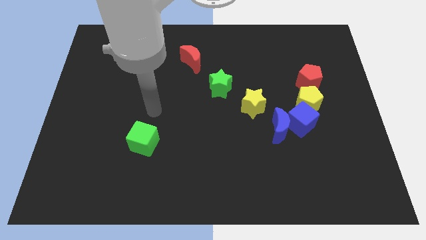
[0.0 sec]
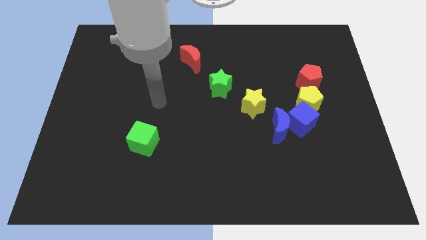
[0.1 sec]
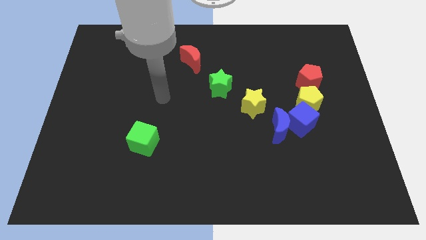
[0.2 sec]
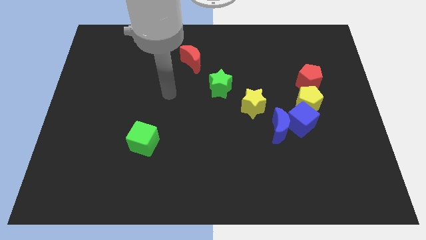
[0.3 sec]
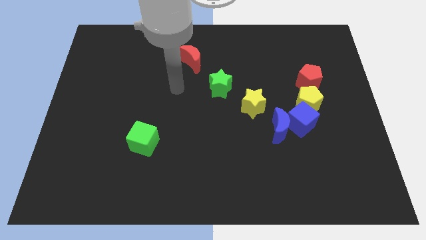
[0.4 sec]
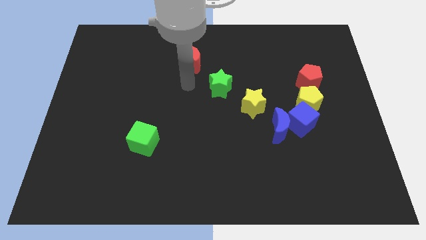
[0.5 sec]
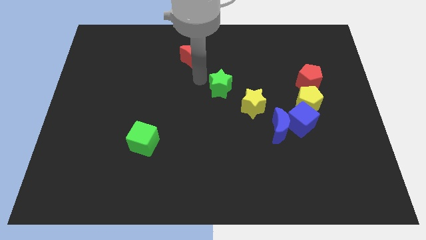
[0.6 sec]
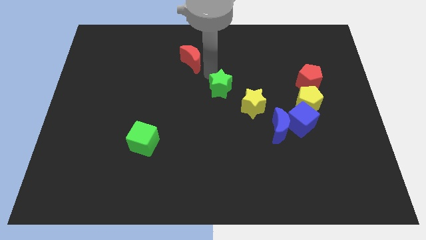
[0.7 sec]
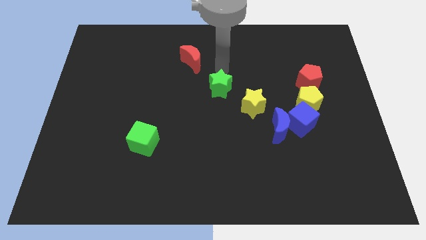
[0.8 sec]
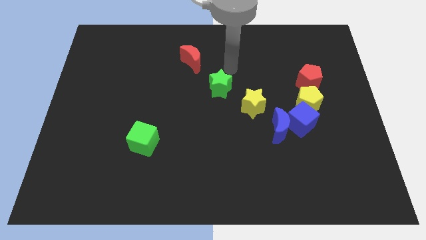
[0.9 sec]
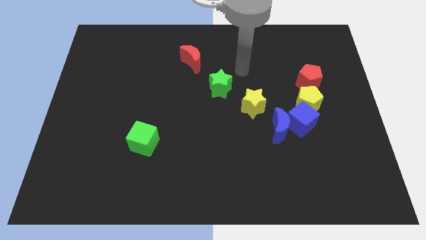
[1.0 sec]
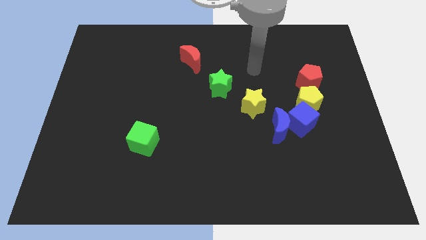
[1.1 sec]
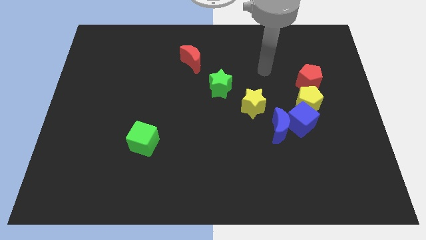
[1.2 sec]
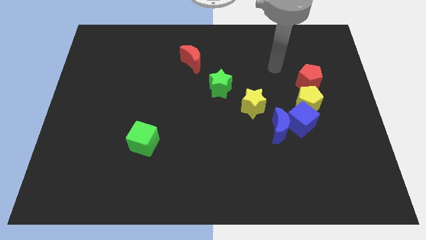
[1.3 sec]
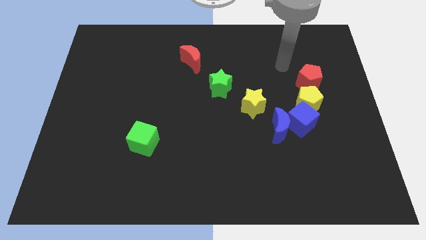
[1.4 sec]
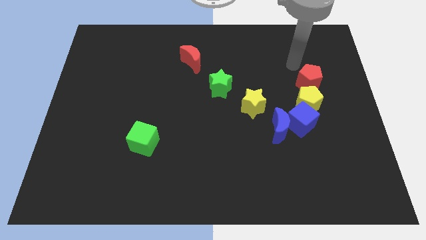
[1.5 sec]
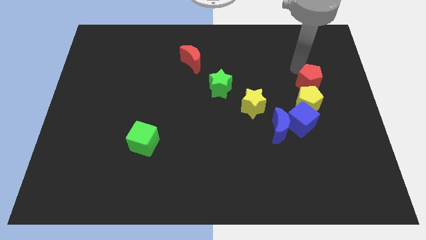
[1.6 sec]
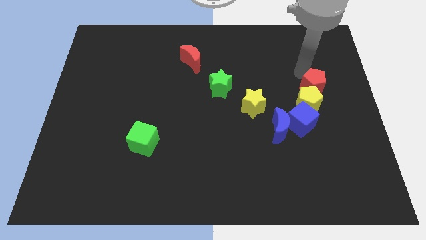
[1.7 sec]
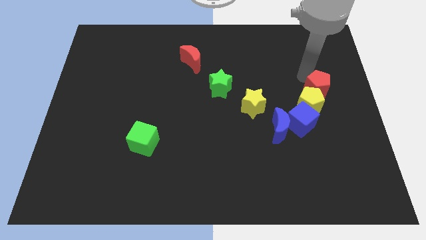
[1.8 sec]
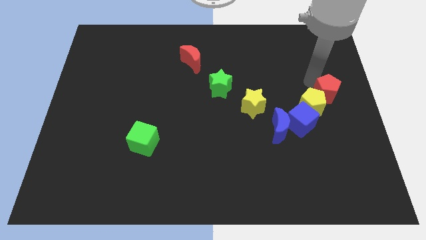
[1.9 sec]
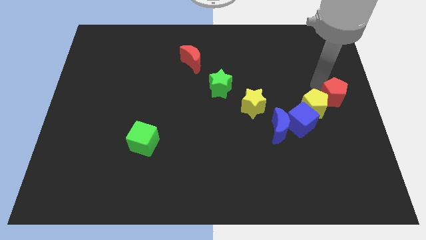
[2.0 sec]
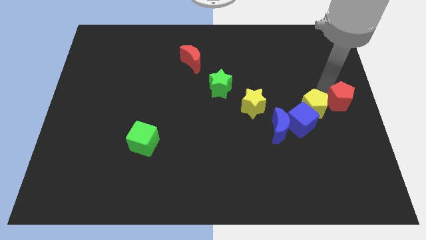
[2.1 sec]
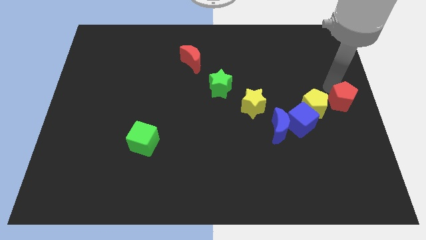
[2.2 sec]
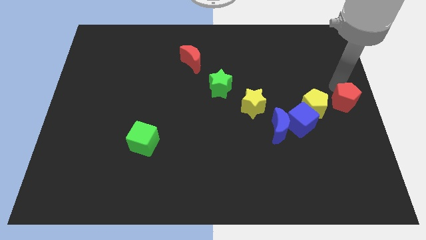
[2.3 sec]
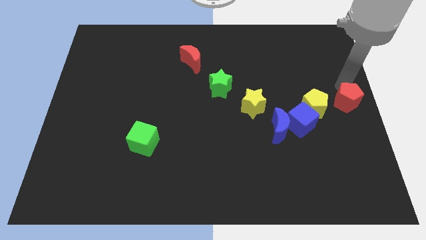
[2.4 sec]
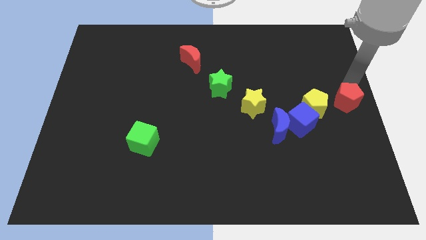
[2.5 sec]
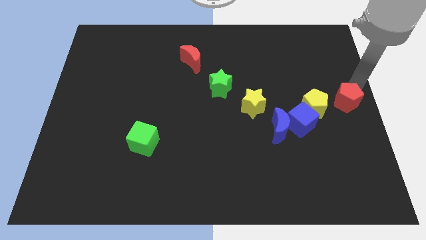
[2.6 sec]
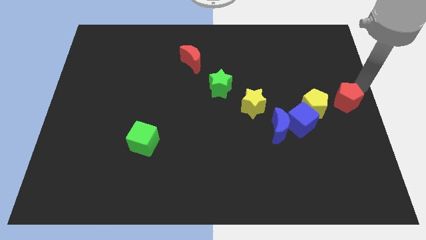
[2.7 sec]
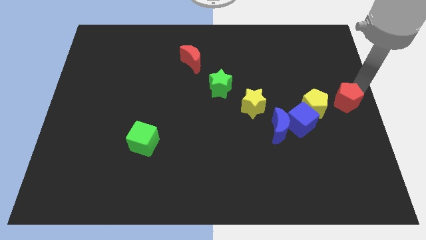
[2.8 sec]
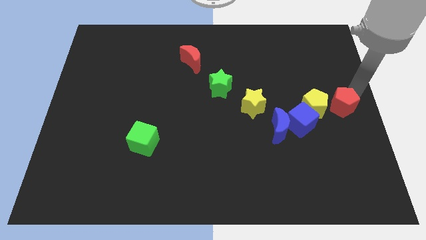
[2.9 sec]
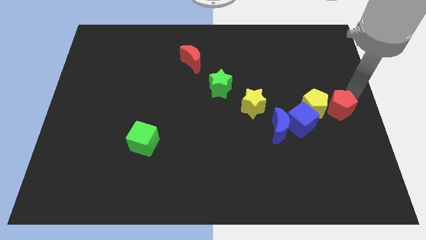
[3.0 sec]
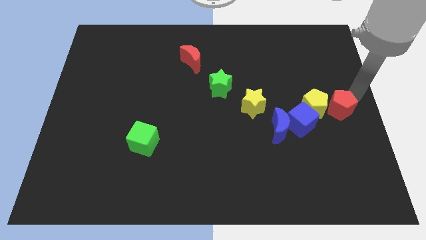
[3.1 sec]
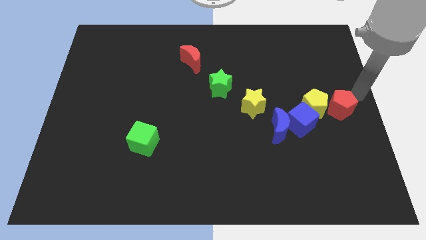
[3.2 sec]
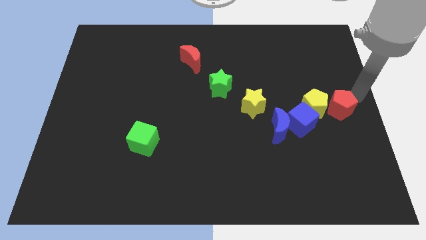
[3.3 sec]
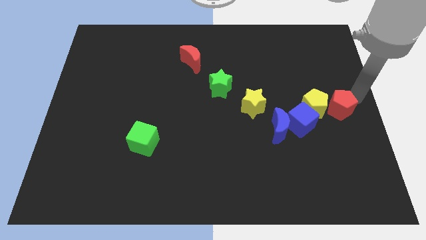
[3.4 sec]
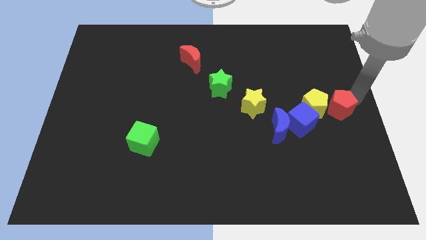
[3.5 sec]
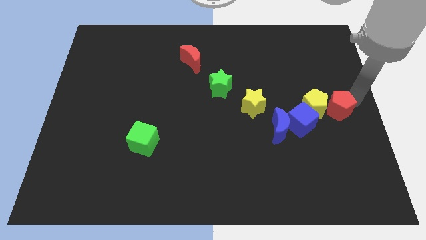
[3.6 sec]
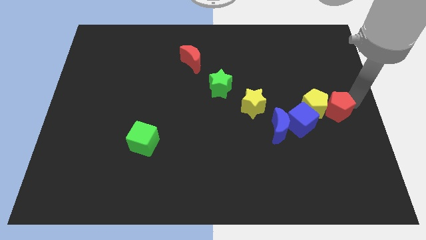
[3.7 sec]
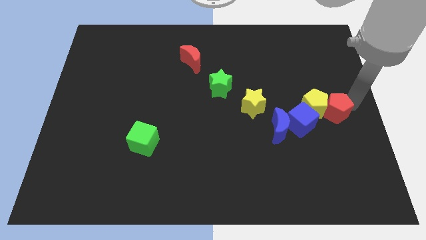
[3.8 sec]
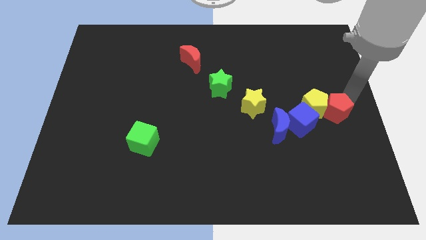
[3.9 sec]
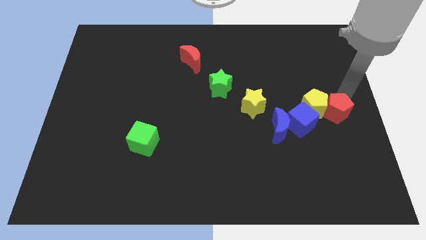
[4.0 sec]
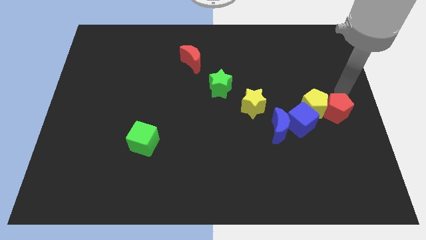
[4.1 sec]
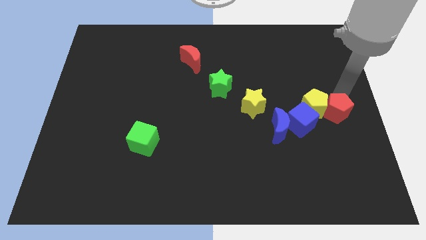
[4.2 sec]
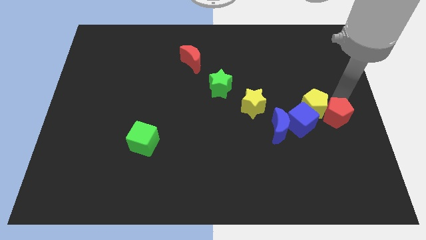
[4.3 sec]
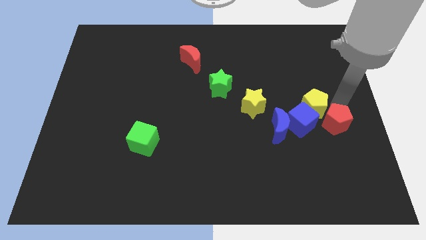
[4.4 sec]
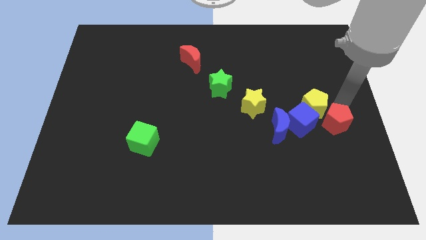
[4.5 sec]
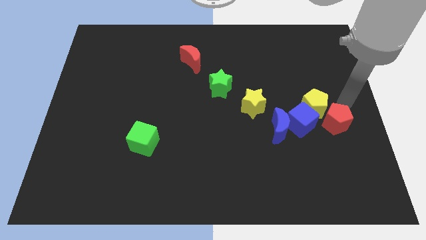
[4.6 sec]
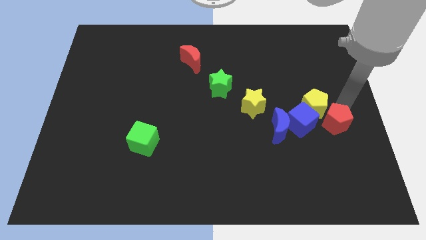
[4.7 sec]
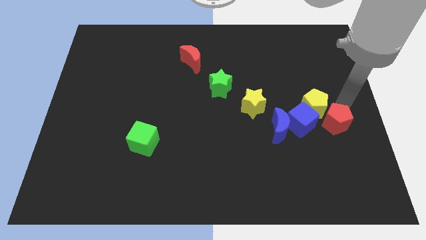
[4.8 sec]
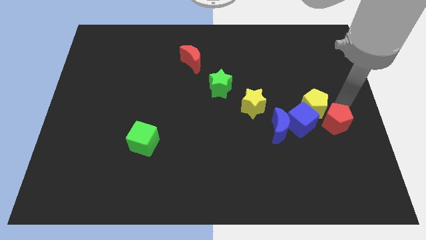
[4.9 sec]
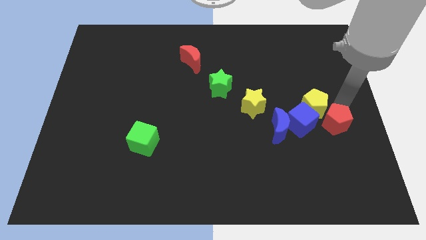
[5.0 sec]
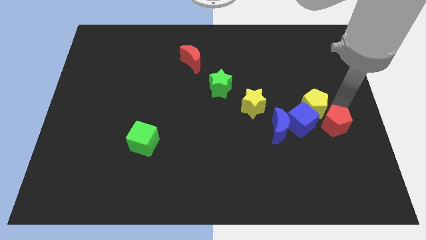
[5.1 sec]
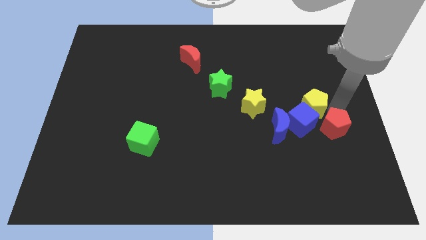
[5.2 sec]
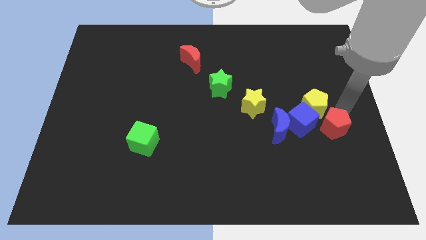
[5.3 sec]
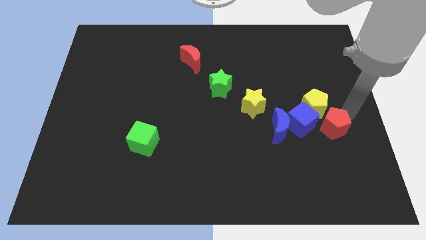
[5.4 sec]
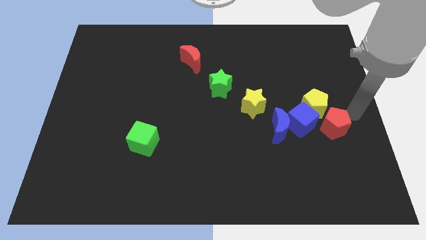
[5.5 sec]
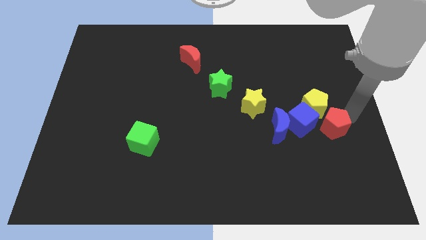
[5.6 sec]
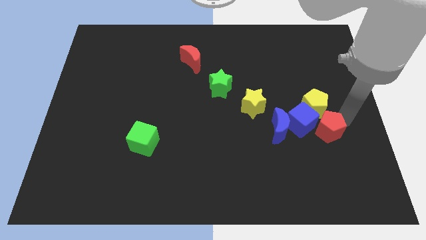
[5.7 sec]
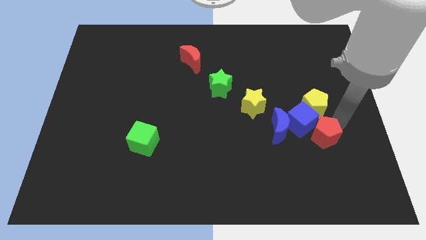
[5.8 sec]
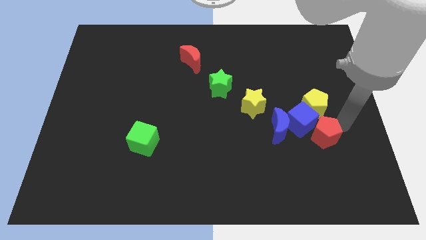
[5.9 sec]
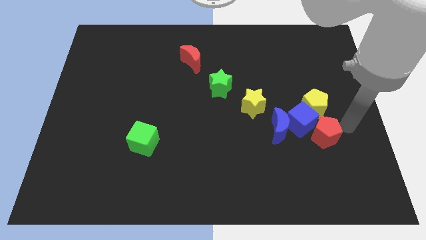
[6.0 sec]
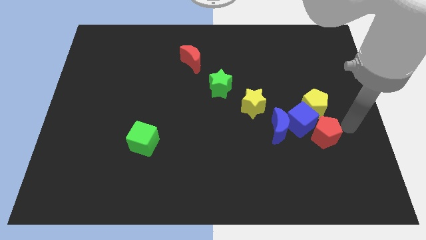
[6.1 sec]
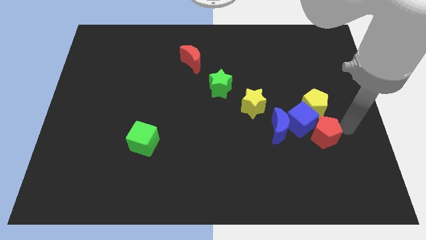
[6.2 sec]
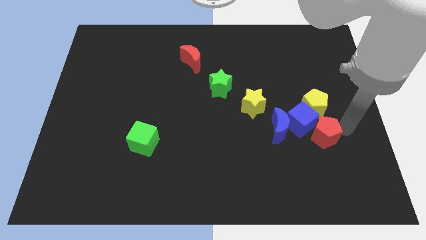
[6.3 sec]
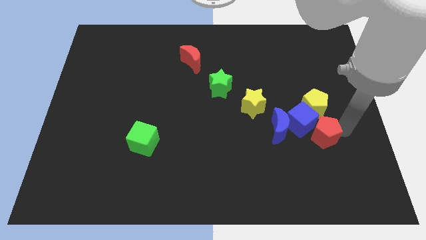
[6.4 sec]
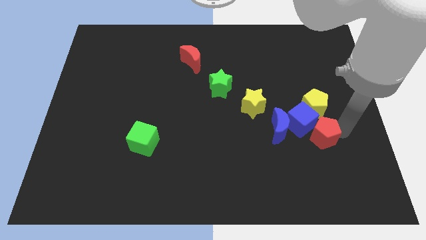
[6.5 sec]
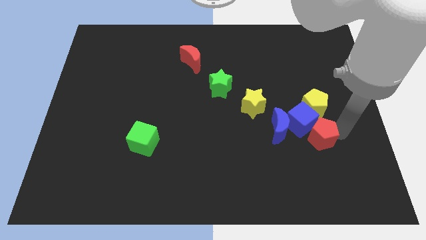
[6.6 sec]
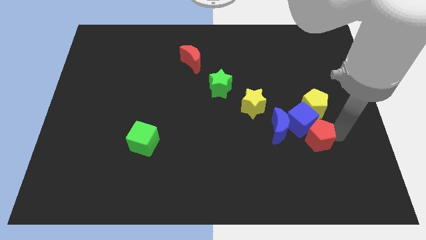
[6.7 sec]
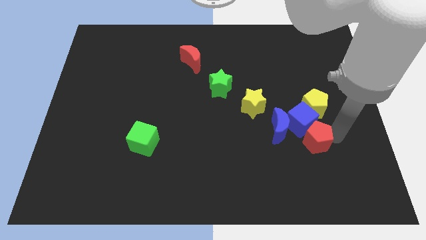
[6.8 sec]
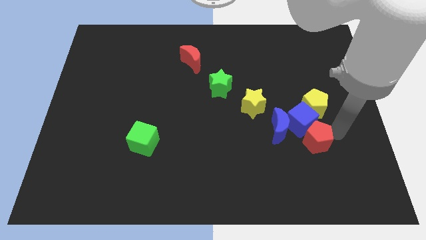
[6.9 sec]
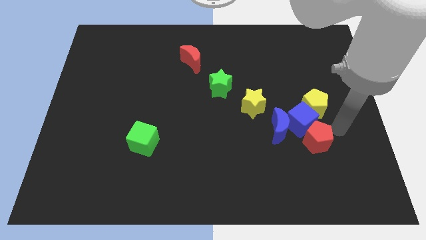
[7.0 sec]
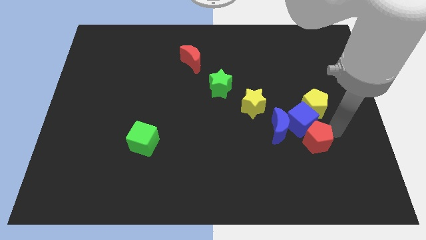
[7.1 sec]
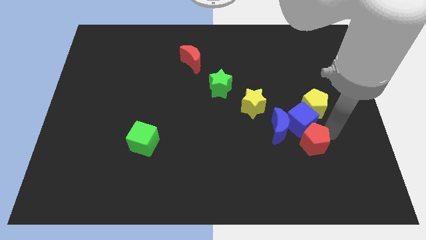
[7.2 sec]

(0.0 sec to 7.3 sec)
slide the red pentagon slightly downwards and then left

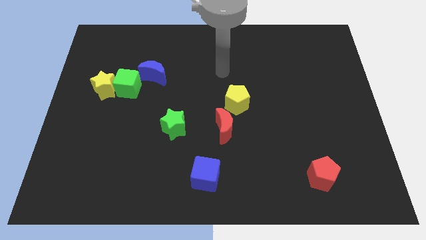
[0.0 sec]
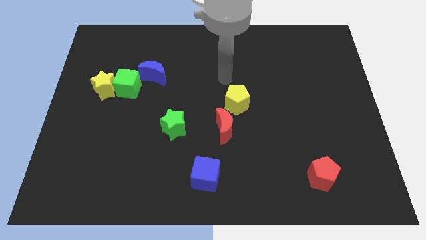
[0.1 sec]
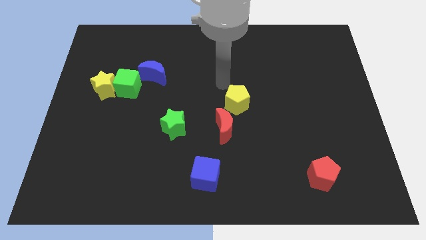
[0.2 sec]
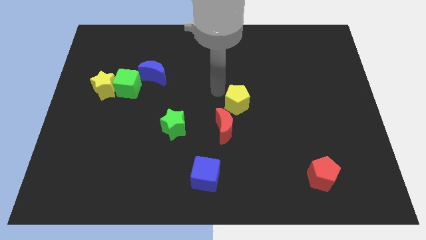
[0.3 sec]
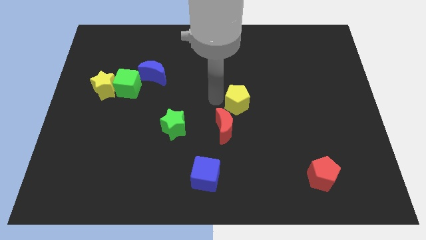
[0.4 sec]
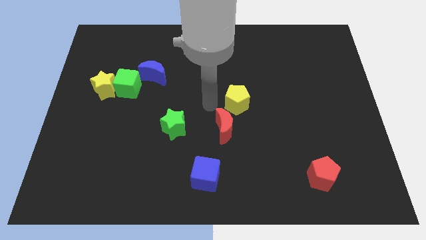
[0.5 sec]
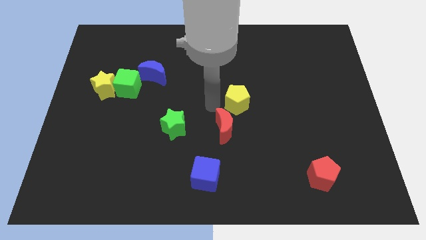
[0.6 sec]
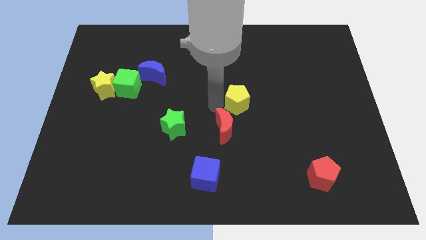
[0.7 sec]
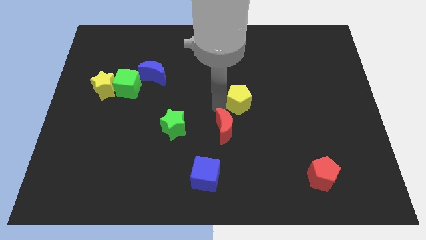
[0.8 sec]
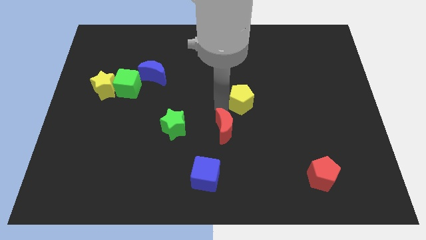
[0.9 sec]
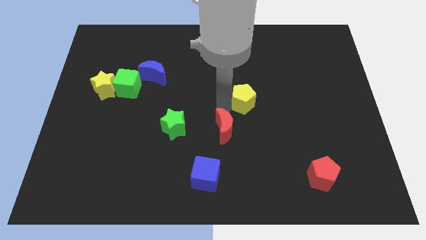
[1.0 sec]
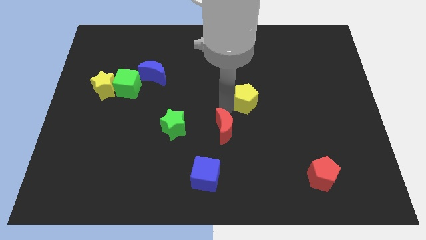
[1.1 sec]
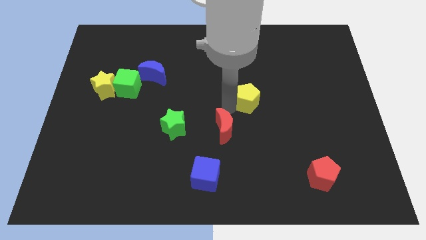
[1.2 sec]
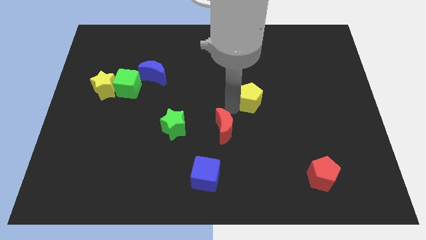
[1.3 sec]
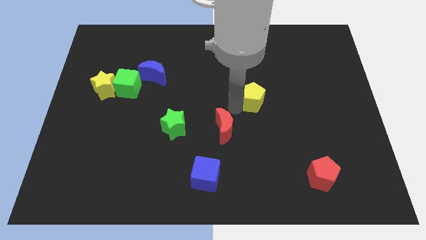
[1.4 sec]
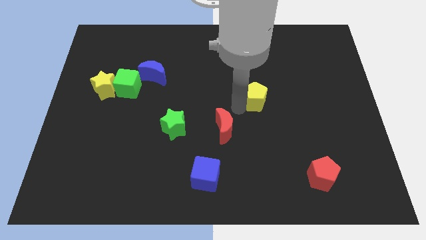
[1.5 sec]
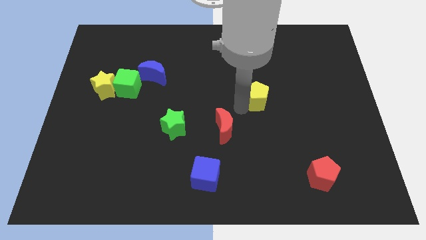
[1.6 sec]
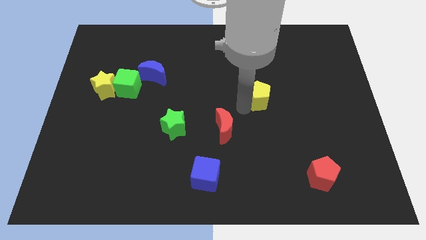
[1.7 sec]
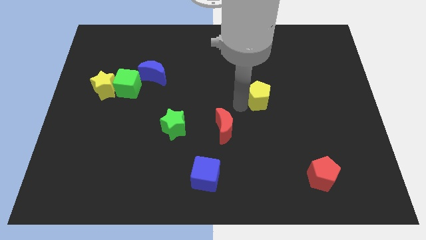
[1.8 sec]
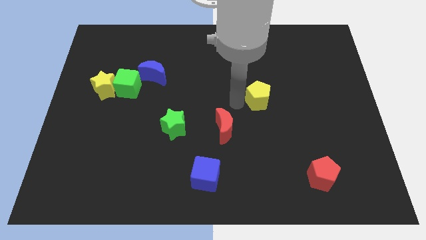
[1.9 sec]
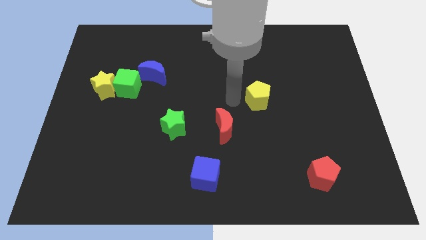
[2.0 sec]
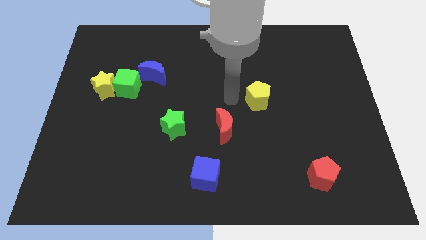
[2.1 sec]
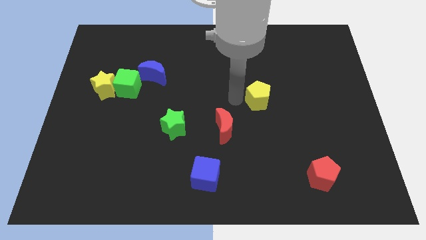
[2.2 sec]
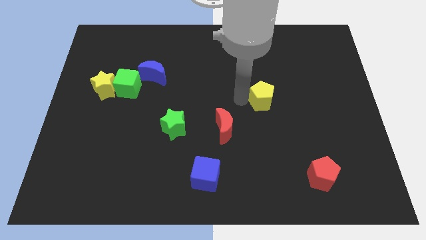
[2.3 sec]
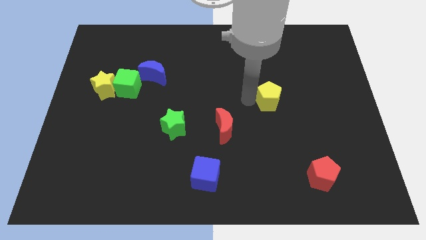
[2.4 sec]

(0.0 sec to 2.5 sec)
slightly slide the yellow pentagon to the right
